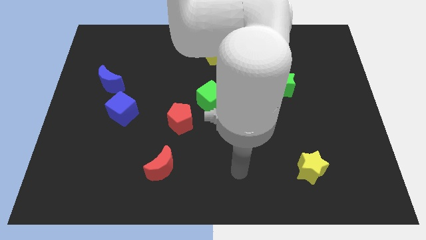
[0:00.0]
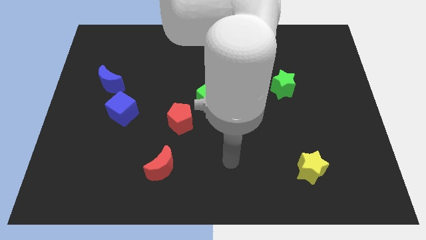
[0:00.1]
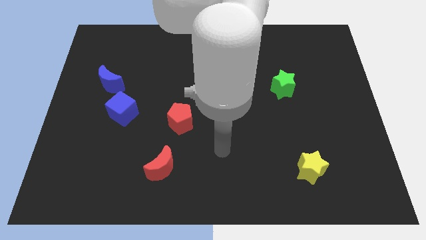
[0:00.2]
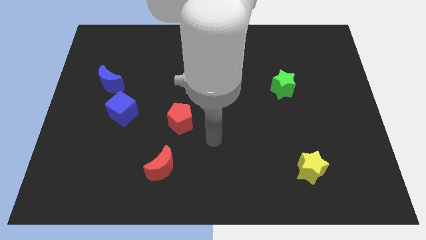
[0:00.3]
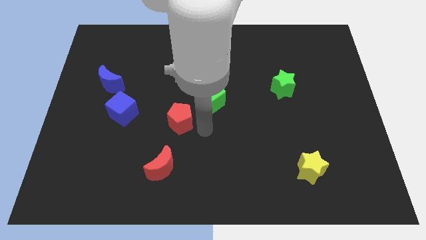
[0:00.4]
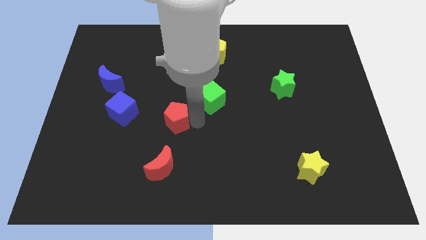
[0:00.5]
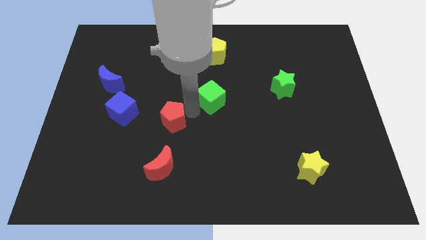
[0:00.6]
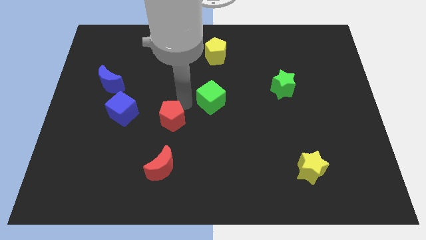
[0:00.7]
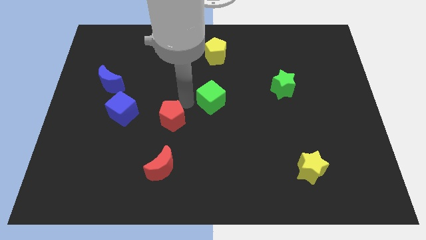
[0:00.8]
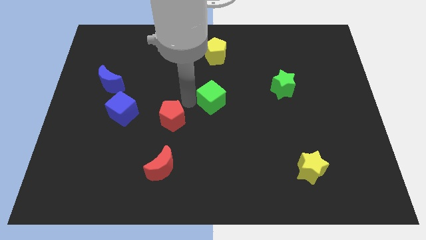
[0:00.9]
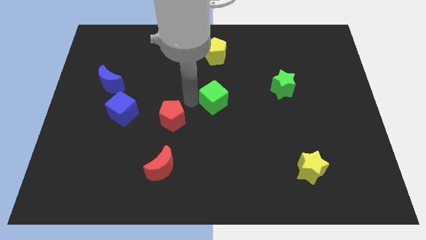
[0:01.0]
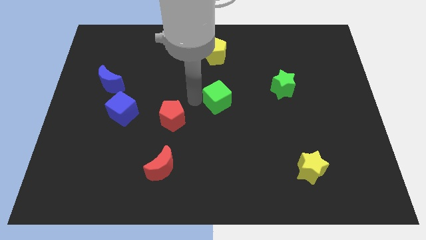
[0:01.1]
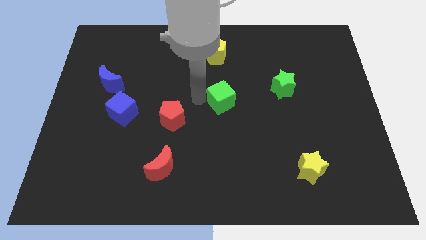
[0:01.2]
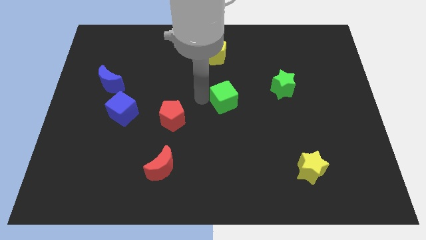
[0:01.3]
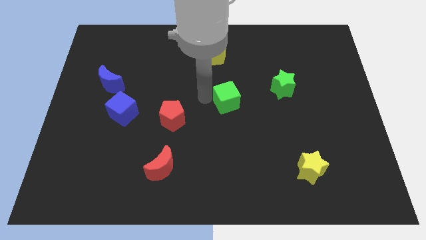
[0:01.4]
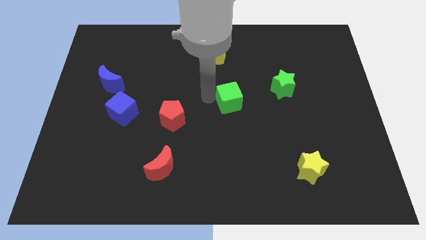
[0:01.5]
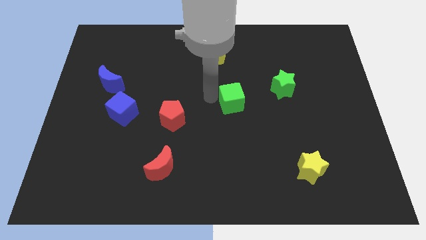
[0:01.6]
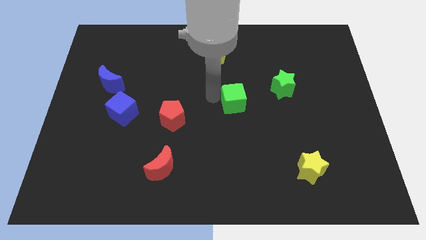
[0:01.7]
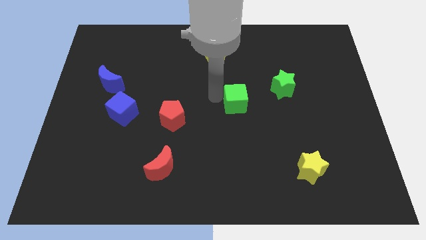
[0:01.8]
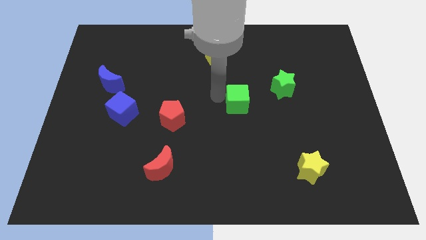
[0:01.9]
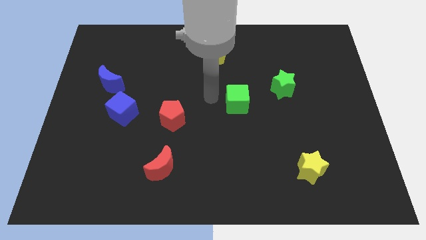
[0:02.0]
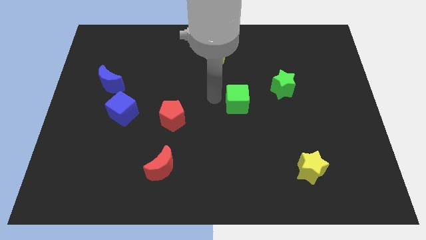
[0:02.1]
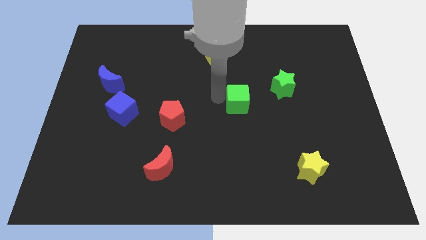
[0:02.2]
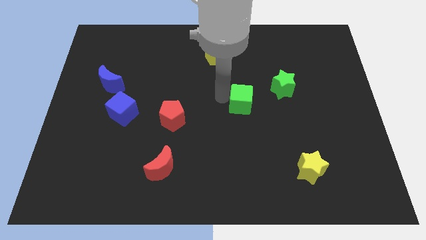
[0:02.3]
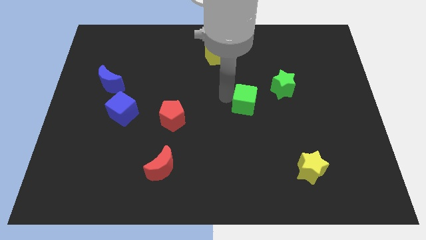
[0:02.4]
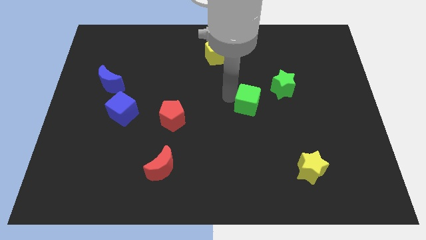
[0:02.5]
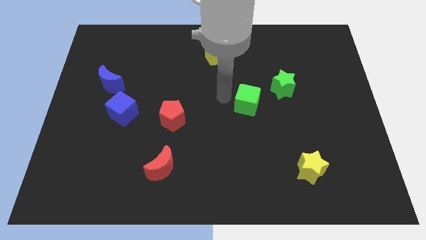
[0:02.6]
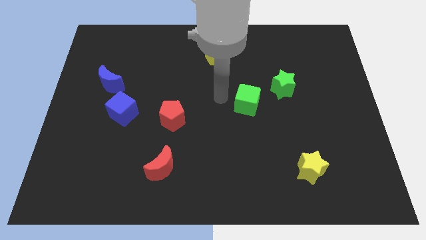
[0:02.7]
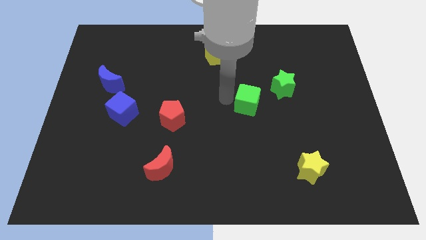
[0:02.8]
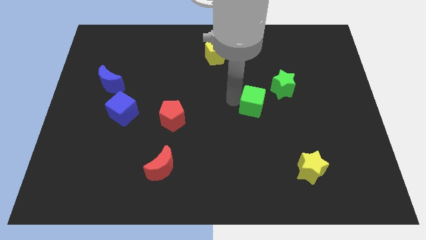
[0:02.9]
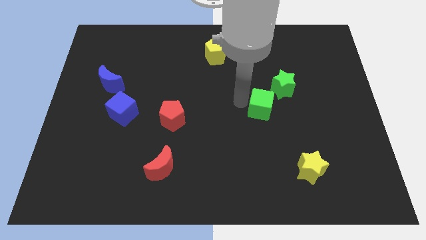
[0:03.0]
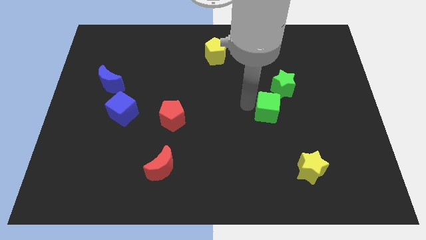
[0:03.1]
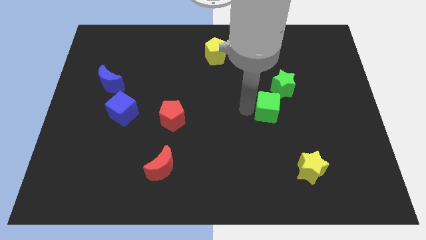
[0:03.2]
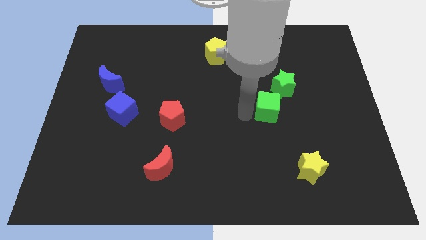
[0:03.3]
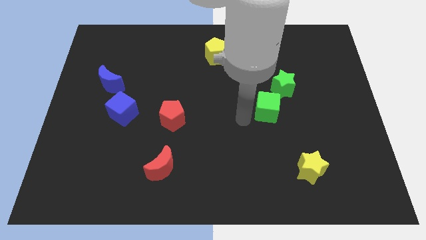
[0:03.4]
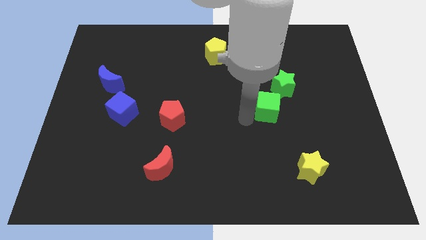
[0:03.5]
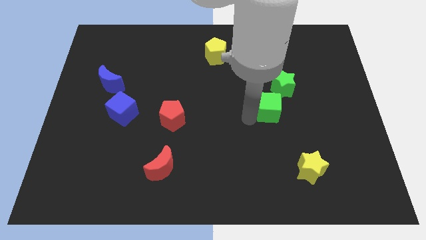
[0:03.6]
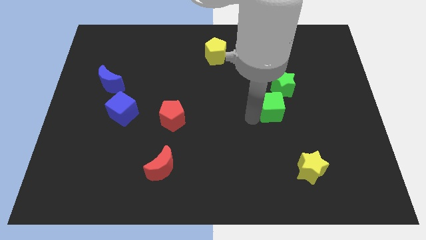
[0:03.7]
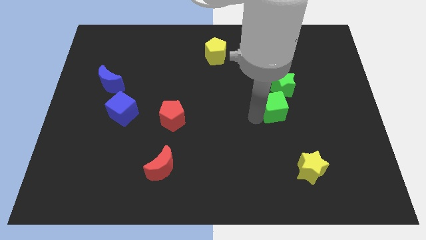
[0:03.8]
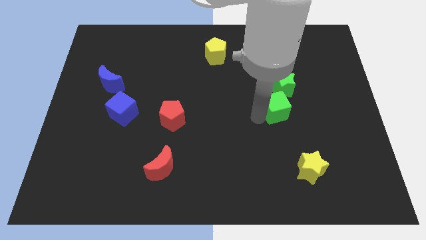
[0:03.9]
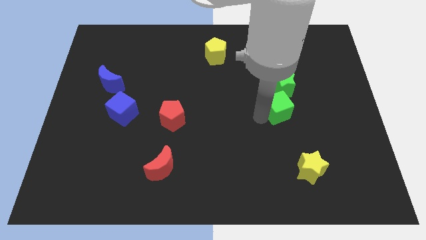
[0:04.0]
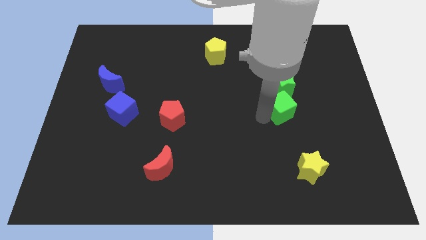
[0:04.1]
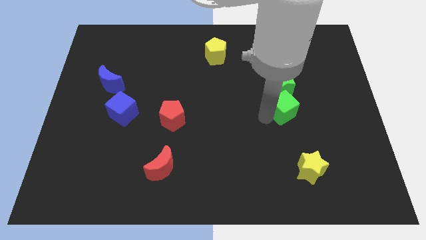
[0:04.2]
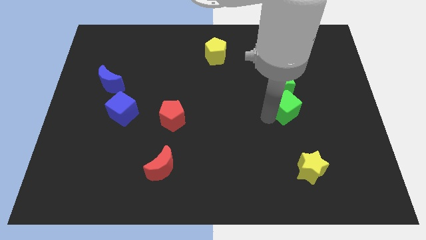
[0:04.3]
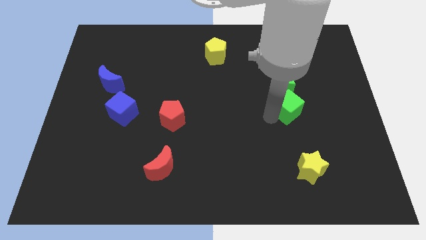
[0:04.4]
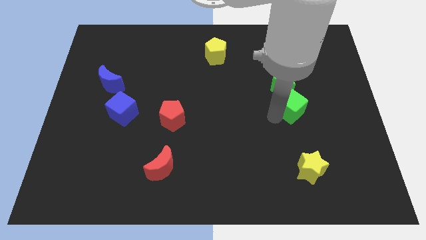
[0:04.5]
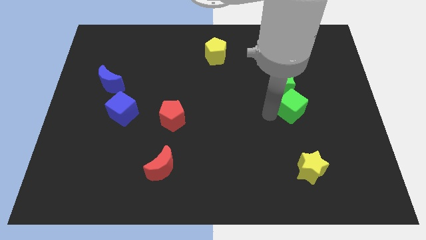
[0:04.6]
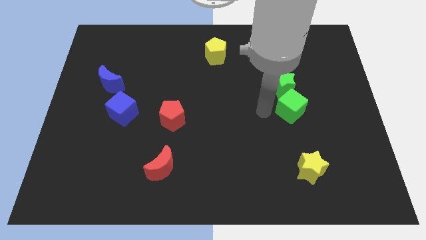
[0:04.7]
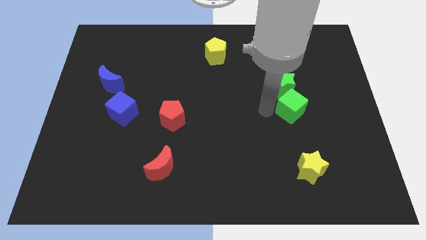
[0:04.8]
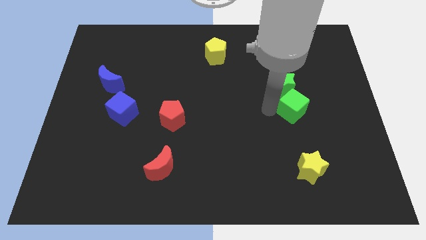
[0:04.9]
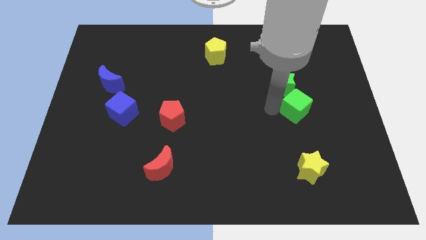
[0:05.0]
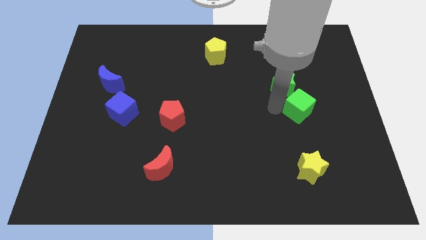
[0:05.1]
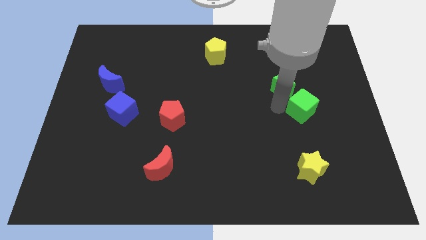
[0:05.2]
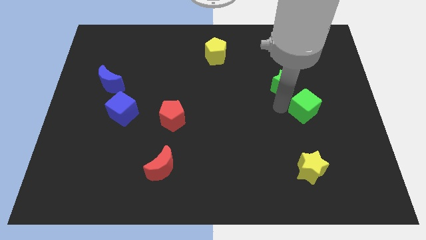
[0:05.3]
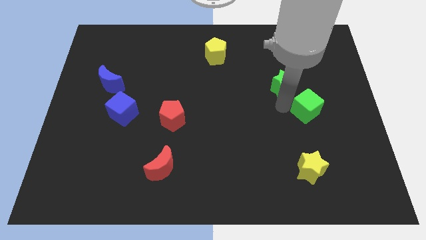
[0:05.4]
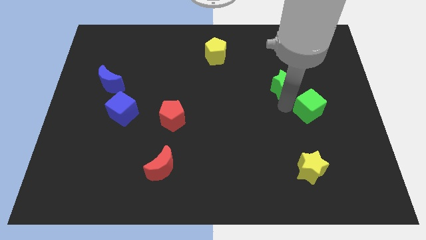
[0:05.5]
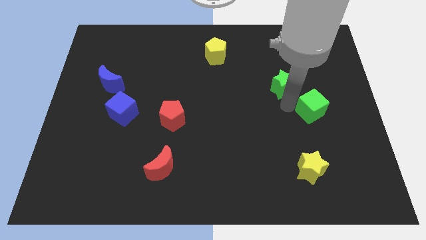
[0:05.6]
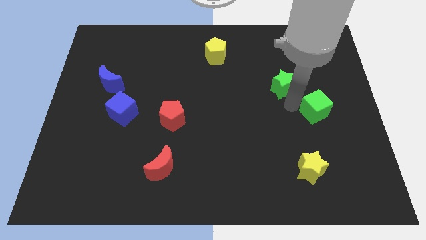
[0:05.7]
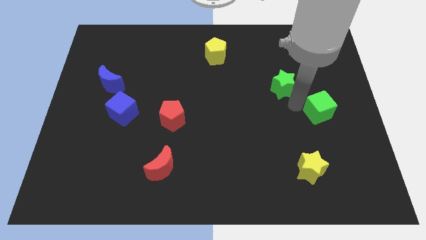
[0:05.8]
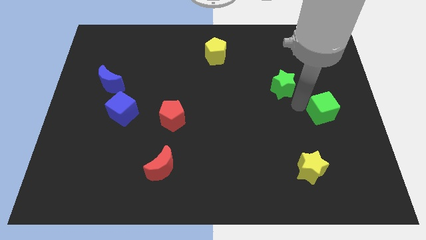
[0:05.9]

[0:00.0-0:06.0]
put the green cube to the center right
